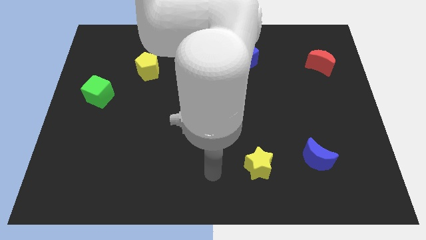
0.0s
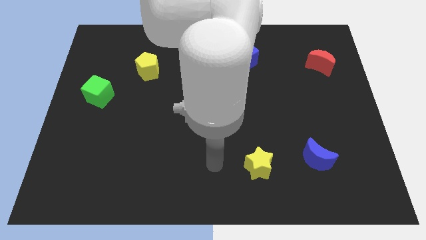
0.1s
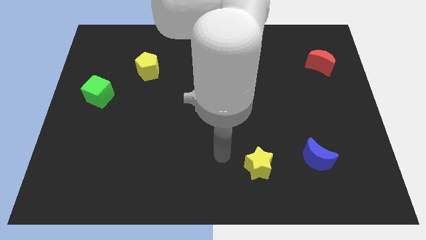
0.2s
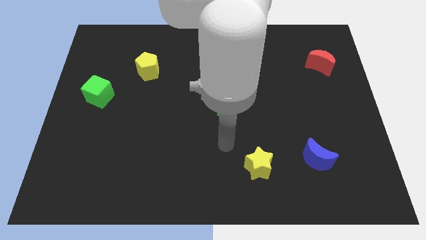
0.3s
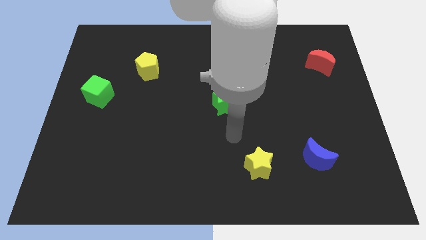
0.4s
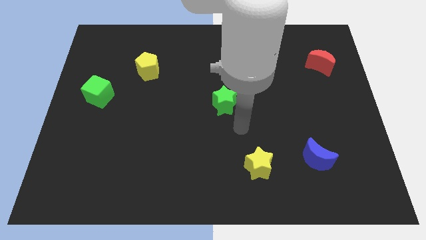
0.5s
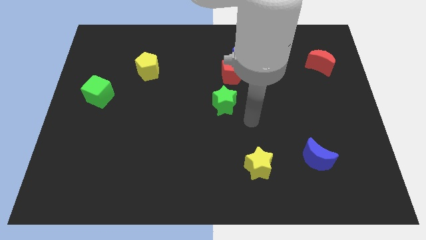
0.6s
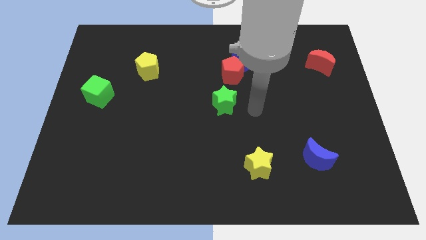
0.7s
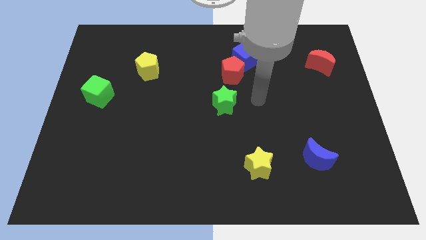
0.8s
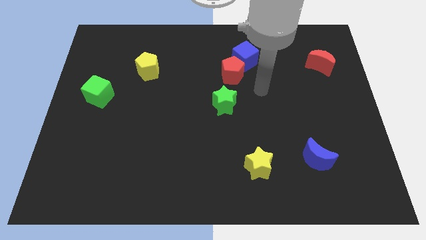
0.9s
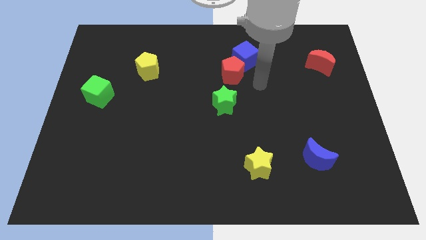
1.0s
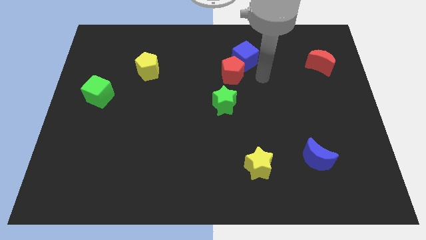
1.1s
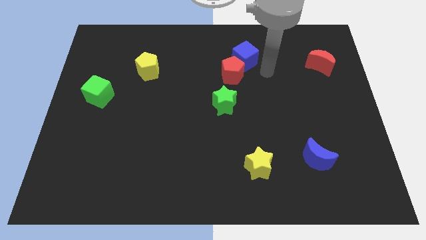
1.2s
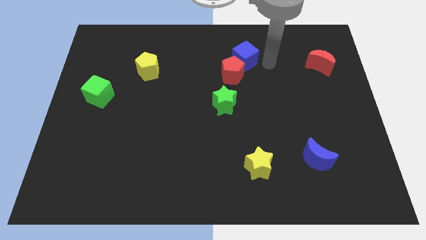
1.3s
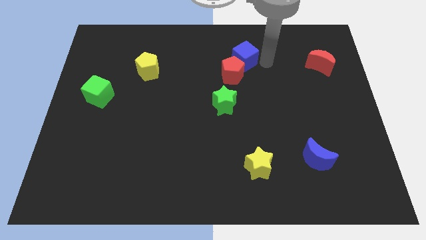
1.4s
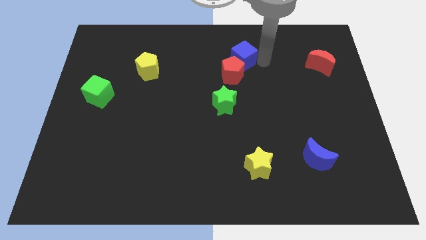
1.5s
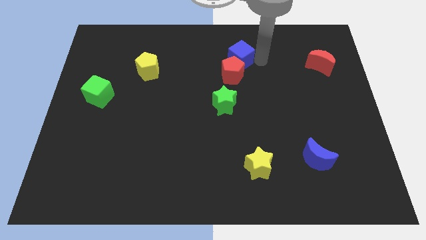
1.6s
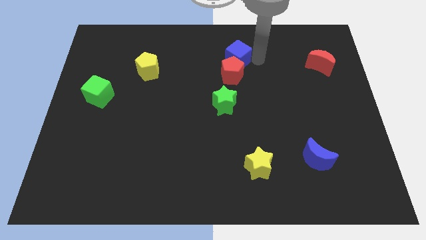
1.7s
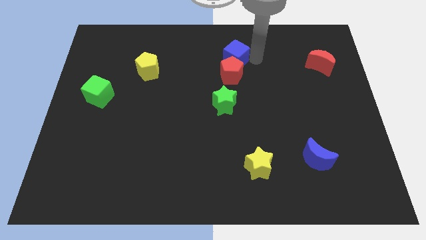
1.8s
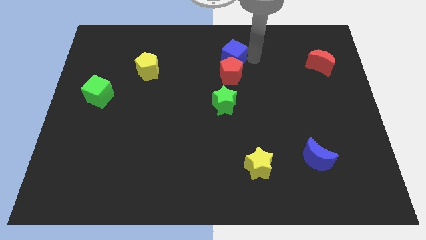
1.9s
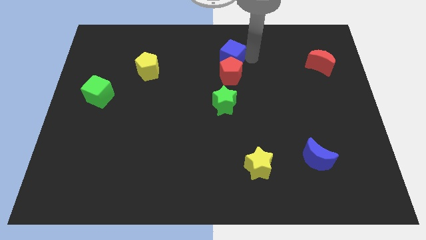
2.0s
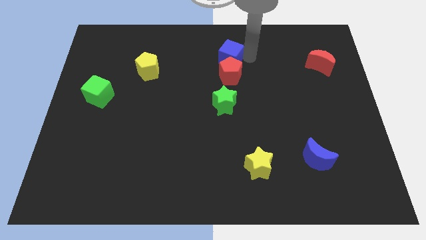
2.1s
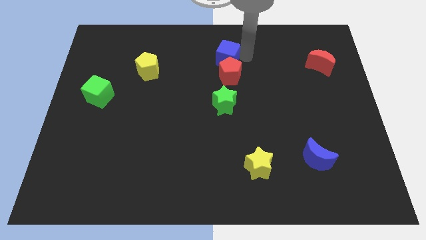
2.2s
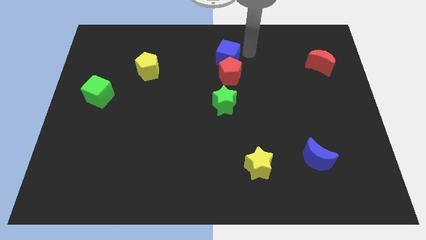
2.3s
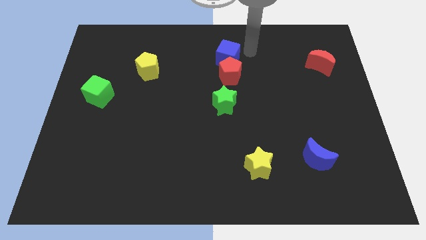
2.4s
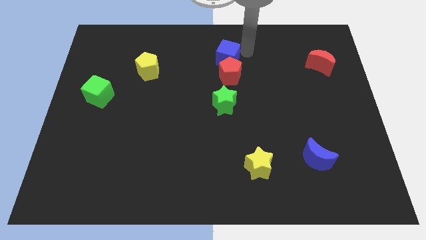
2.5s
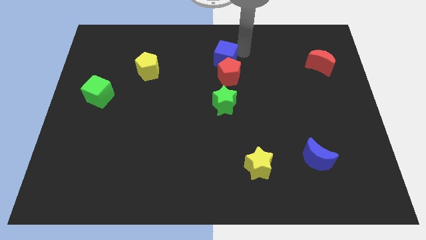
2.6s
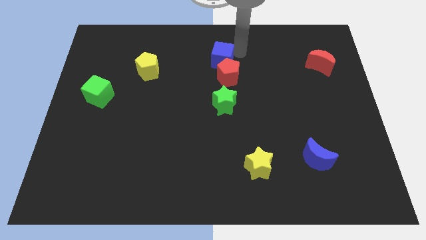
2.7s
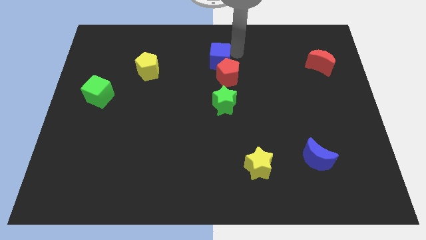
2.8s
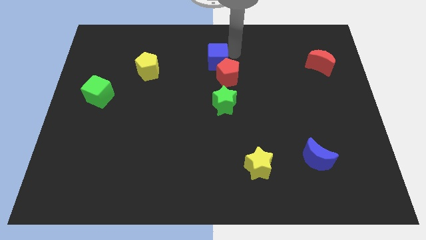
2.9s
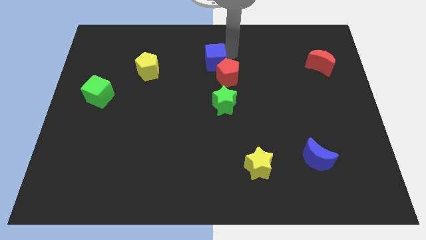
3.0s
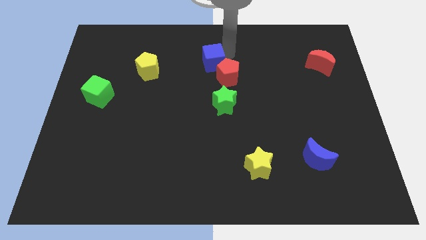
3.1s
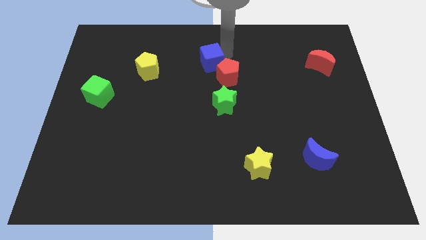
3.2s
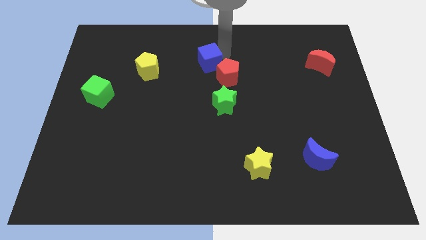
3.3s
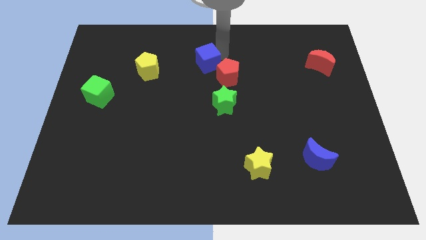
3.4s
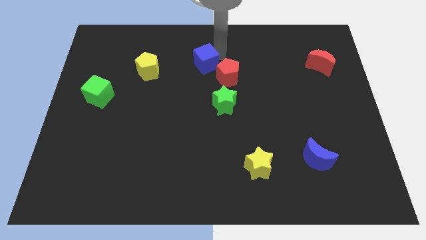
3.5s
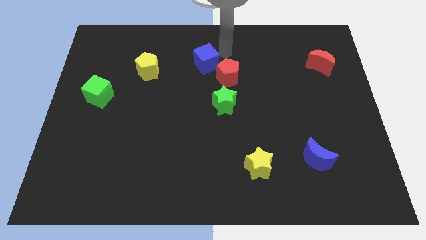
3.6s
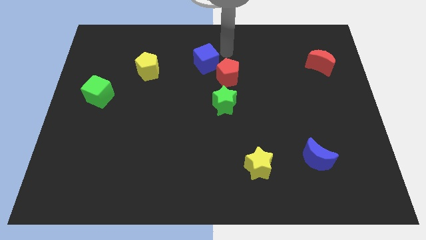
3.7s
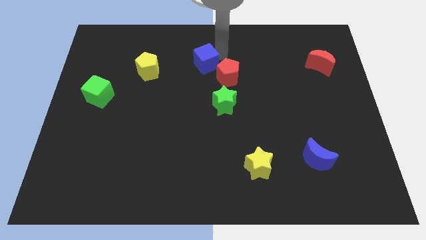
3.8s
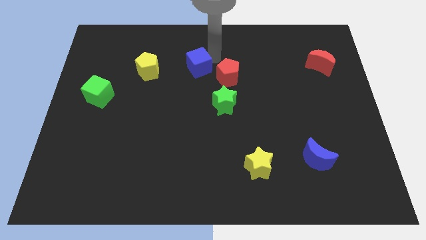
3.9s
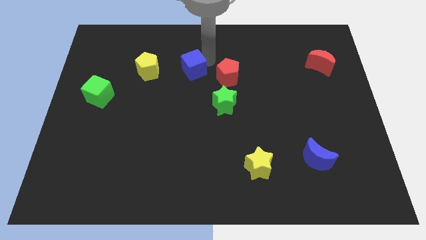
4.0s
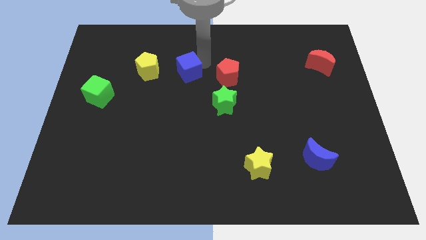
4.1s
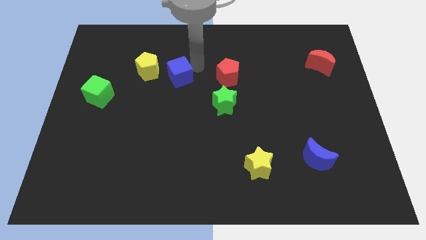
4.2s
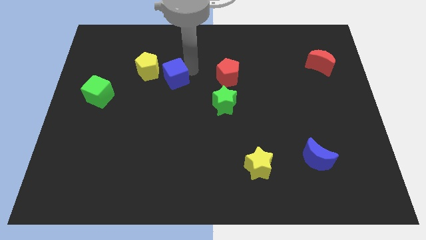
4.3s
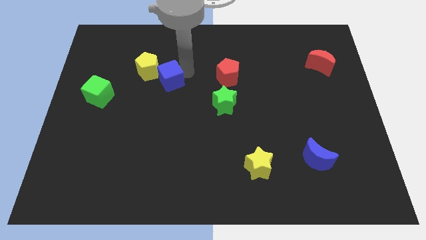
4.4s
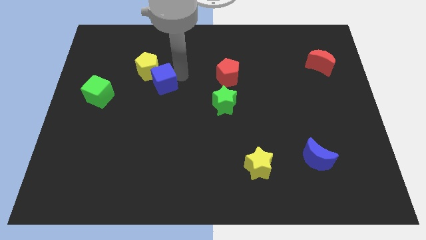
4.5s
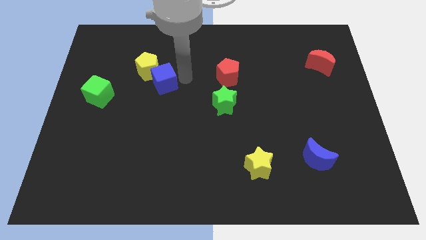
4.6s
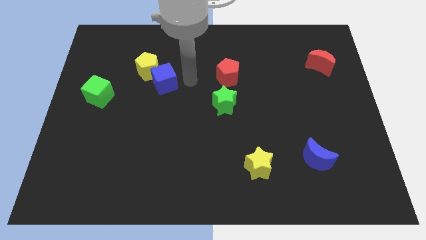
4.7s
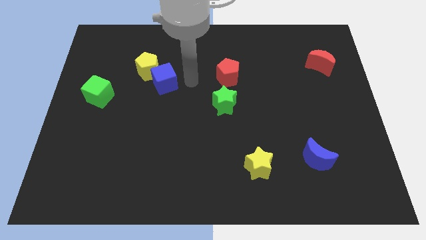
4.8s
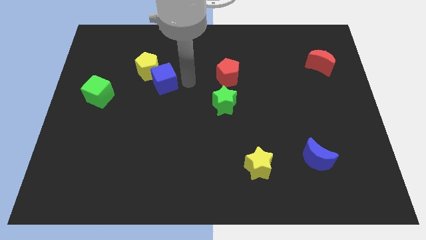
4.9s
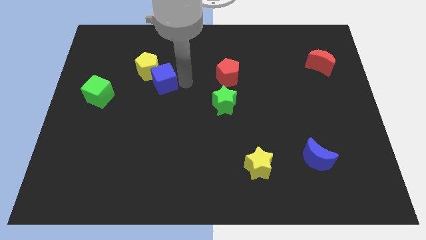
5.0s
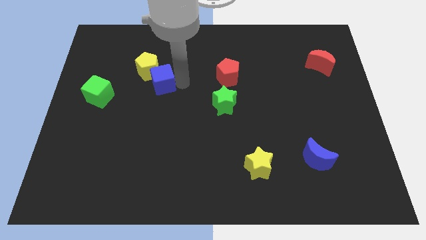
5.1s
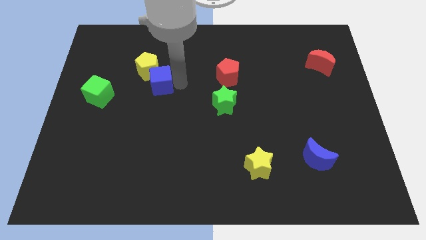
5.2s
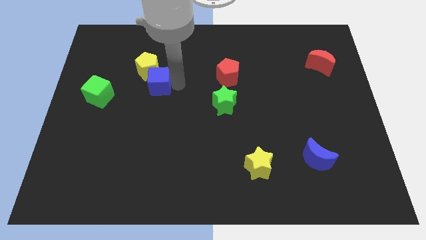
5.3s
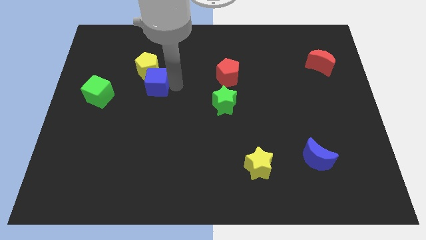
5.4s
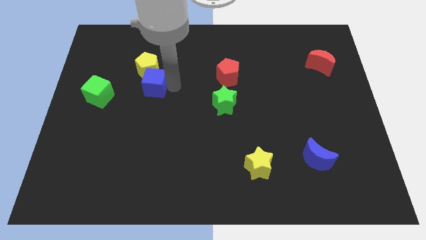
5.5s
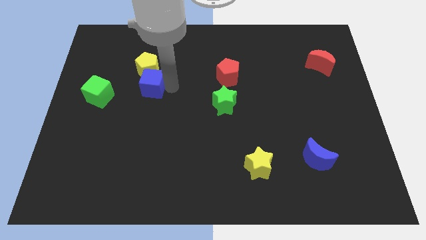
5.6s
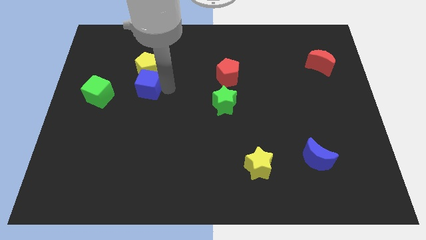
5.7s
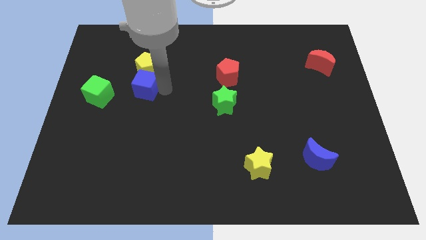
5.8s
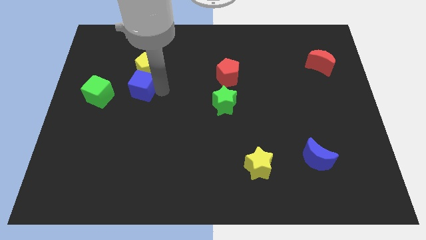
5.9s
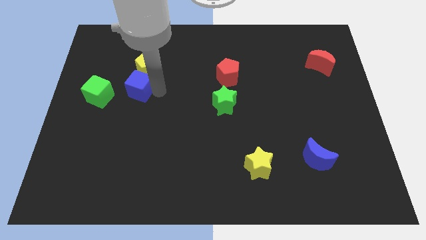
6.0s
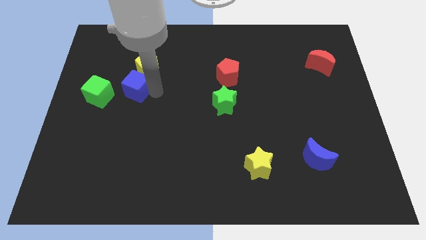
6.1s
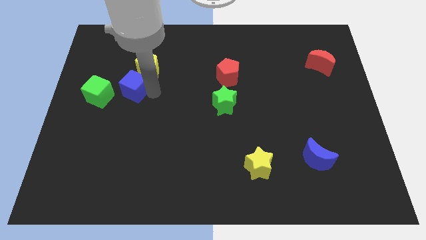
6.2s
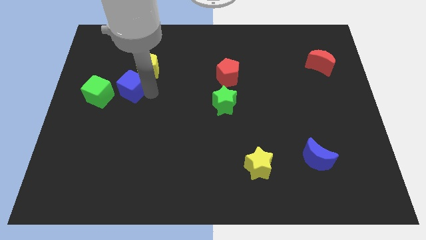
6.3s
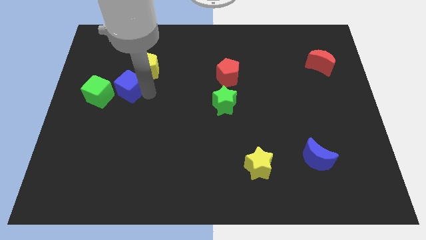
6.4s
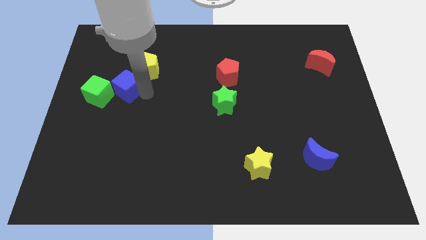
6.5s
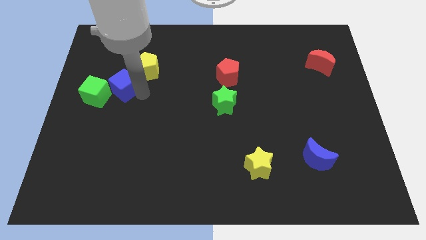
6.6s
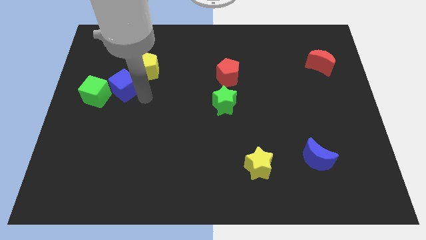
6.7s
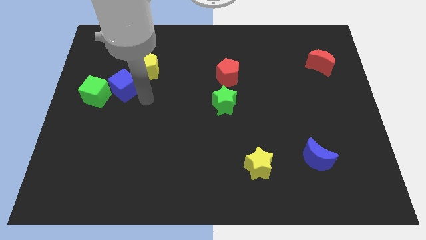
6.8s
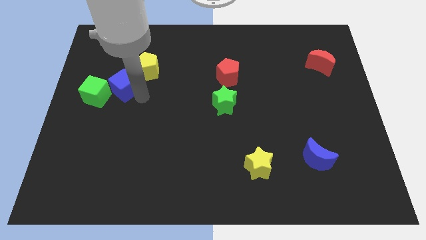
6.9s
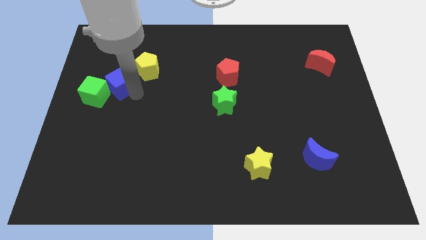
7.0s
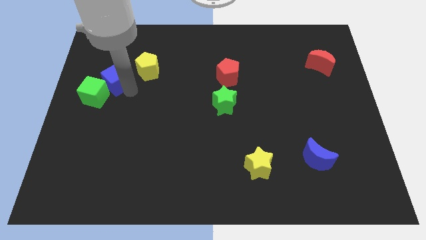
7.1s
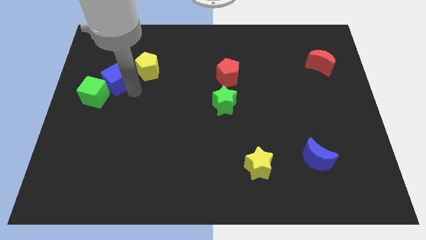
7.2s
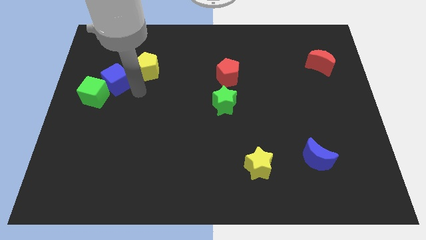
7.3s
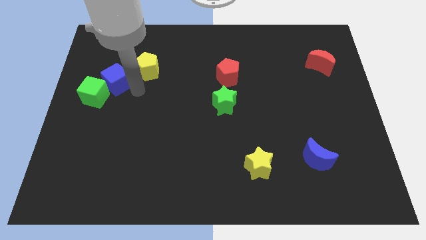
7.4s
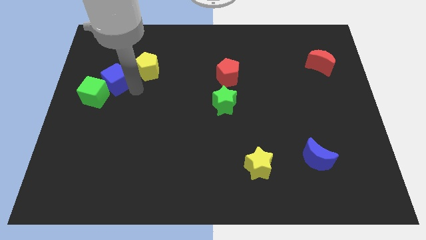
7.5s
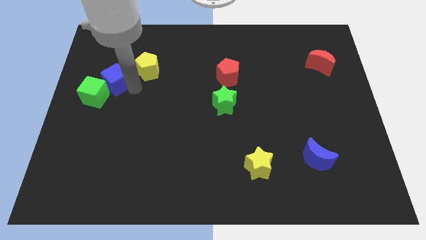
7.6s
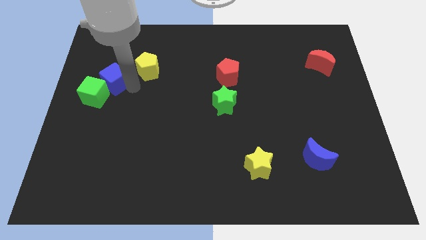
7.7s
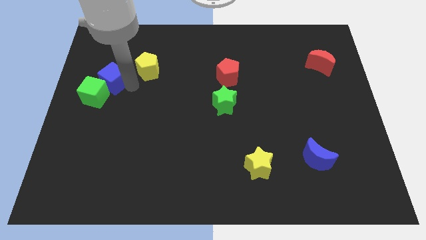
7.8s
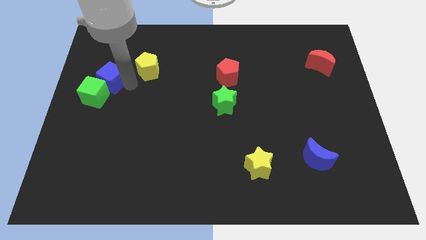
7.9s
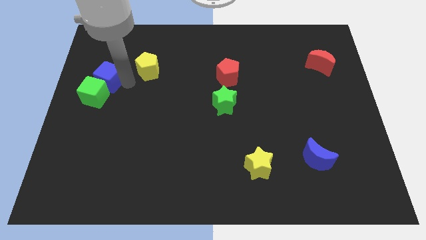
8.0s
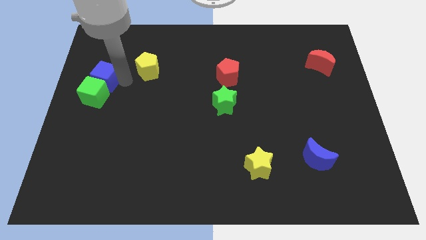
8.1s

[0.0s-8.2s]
push the blue cube to the center left
